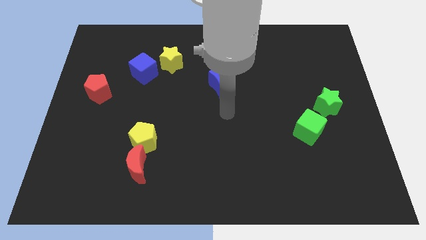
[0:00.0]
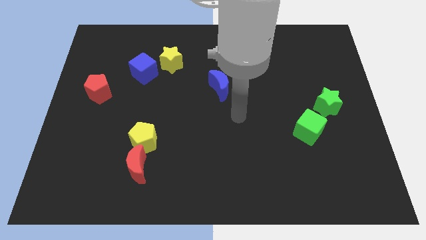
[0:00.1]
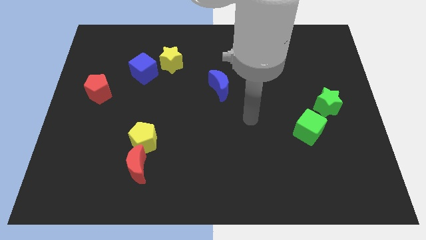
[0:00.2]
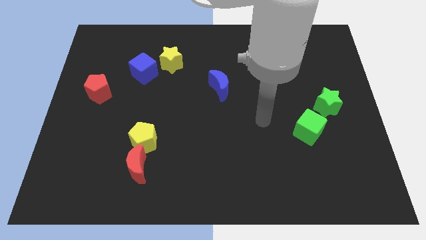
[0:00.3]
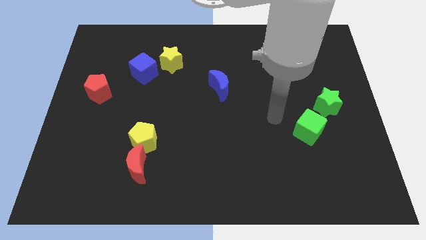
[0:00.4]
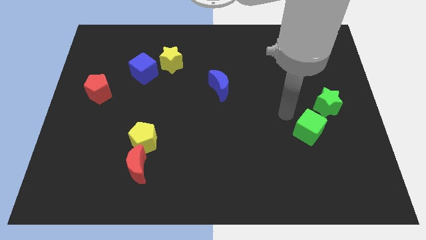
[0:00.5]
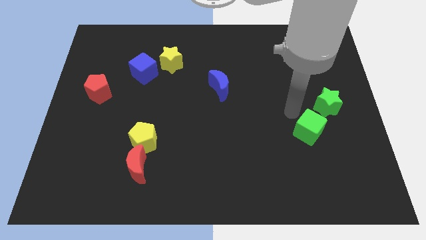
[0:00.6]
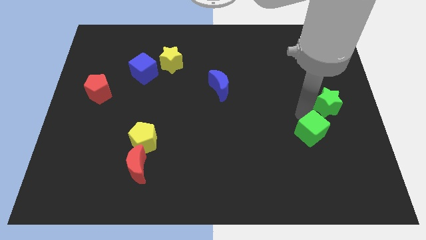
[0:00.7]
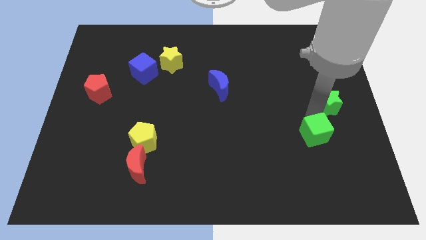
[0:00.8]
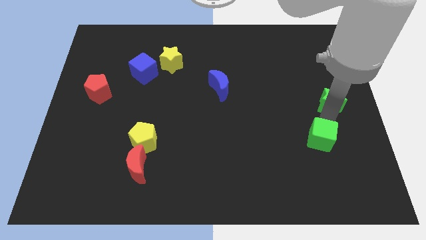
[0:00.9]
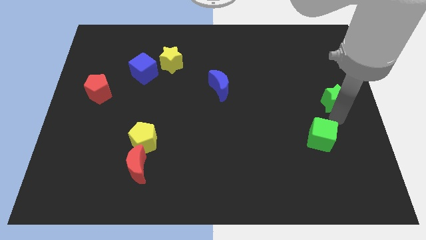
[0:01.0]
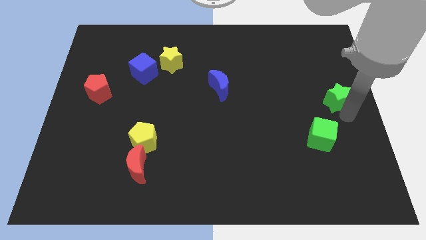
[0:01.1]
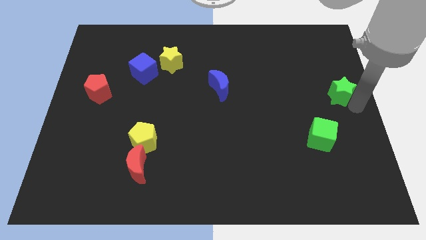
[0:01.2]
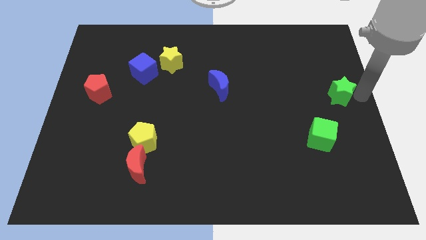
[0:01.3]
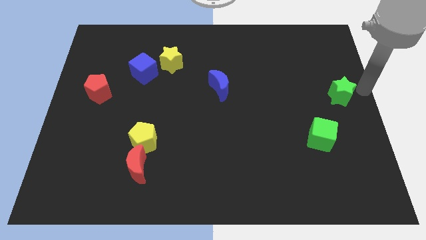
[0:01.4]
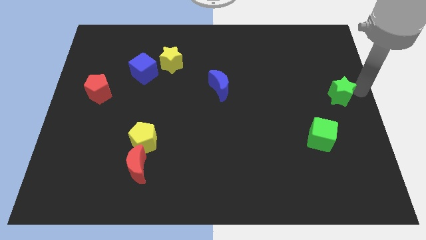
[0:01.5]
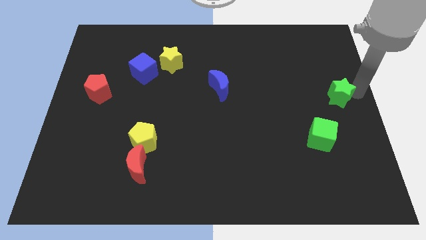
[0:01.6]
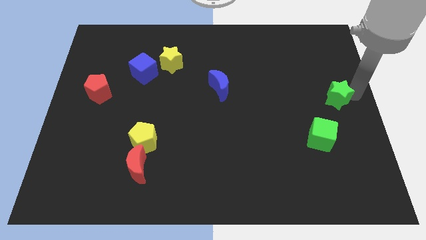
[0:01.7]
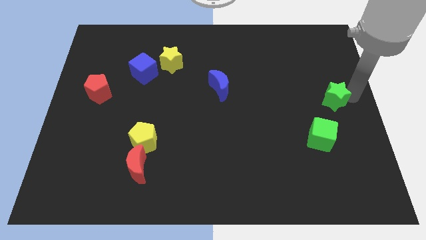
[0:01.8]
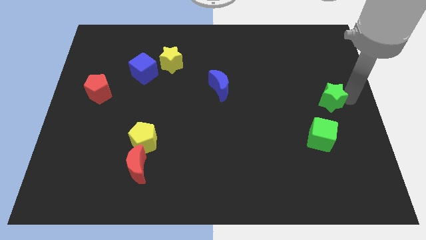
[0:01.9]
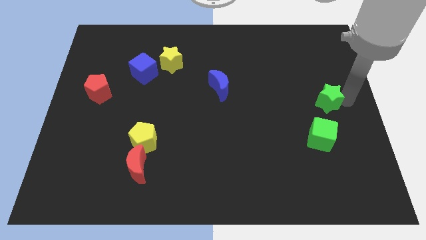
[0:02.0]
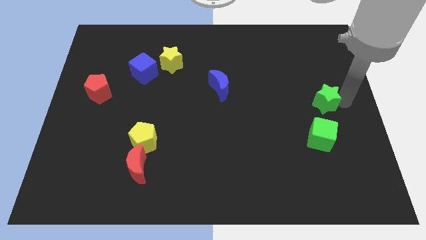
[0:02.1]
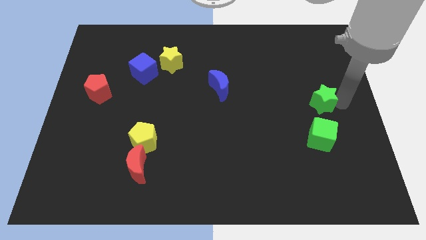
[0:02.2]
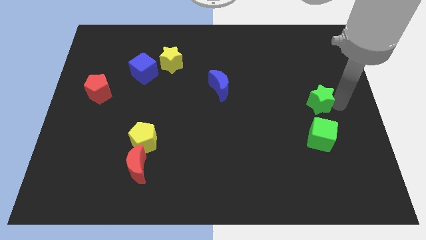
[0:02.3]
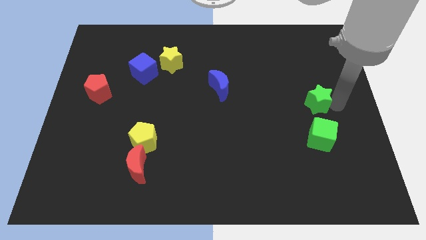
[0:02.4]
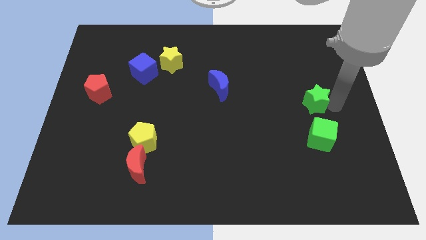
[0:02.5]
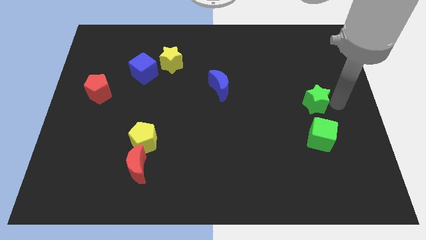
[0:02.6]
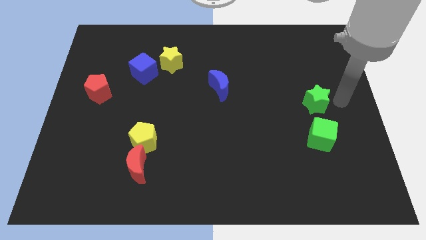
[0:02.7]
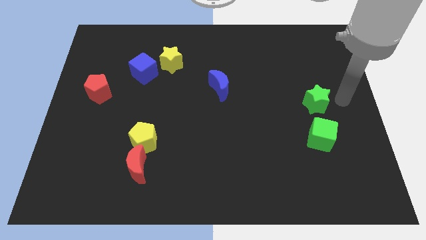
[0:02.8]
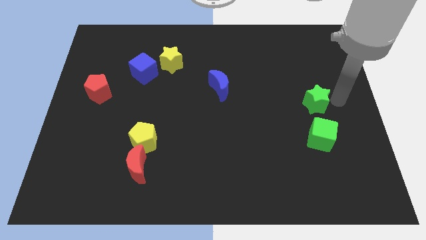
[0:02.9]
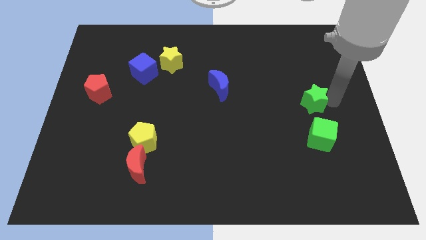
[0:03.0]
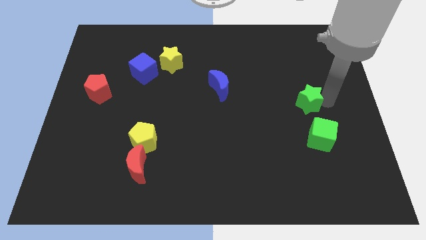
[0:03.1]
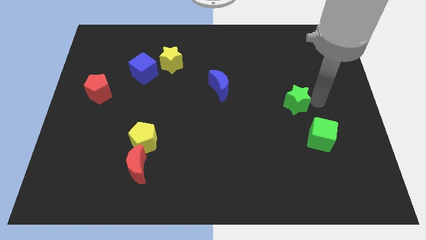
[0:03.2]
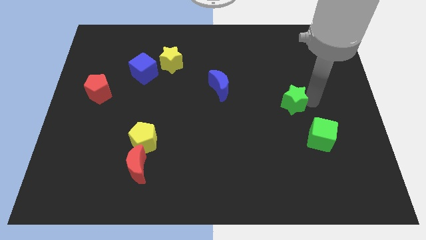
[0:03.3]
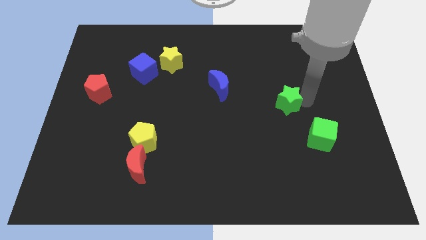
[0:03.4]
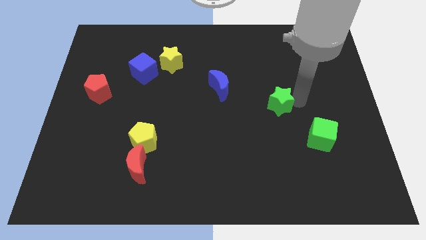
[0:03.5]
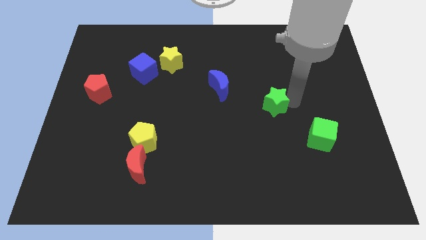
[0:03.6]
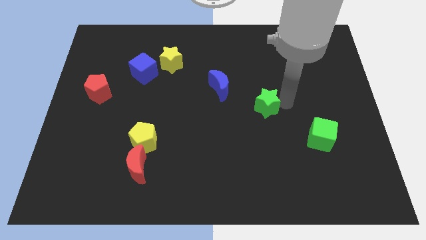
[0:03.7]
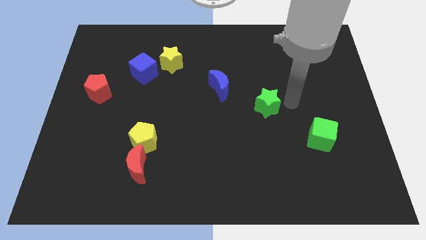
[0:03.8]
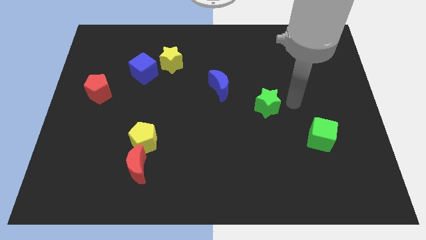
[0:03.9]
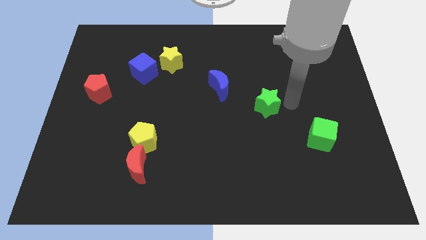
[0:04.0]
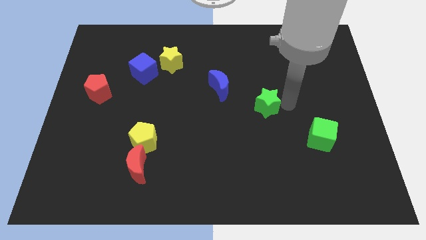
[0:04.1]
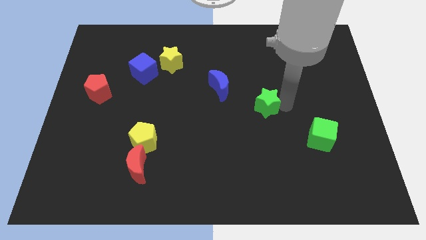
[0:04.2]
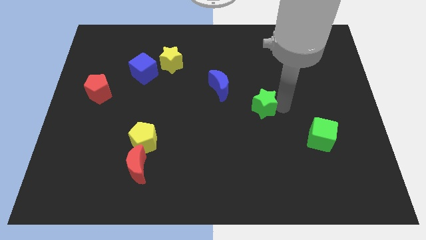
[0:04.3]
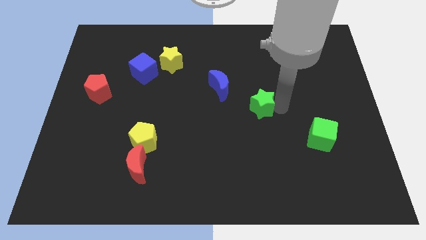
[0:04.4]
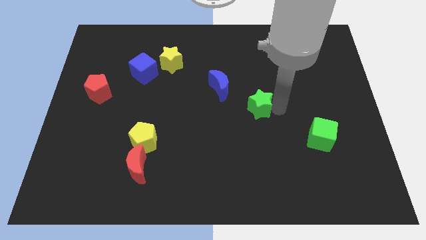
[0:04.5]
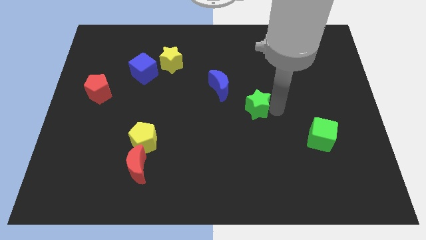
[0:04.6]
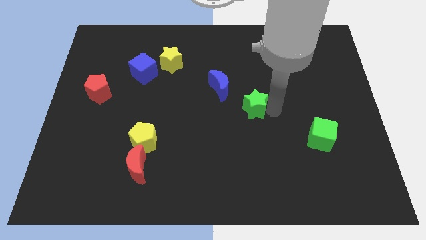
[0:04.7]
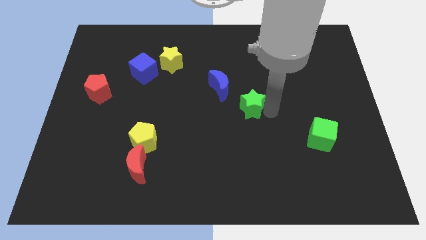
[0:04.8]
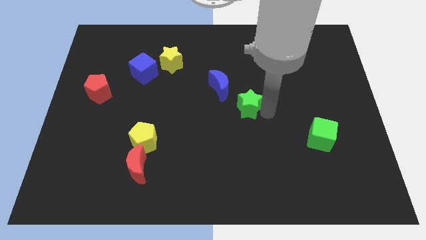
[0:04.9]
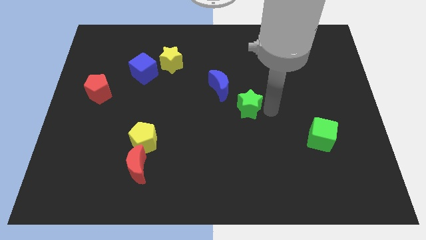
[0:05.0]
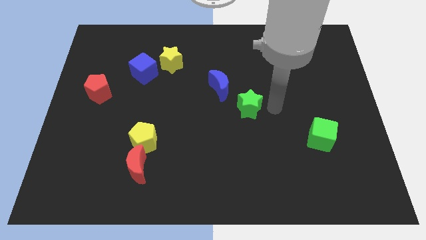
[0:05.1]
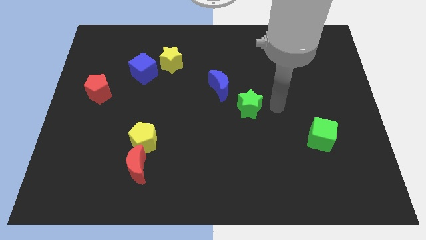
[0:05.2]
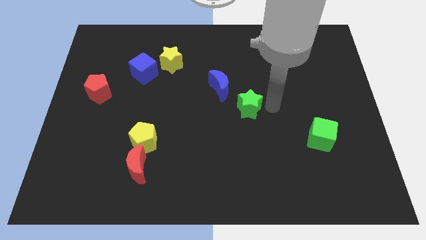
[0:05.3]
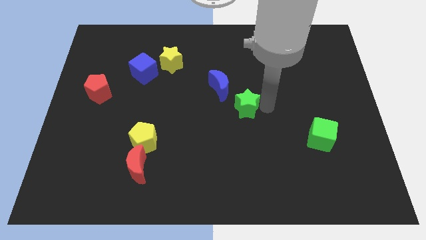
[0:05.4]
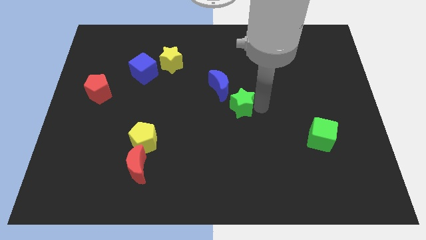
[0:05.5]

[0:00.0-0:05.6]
move the green star left

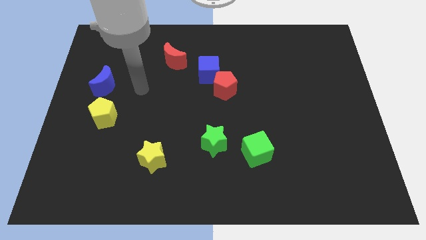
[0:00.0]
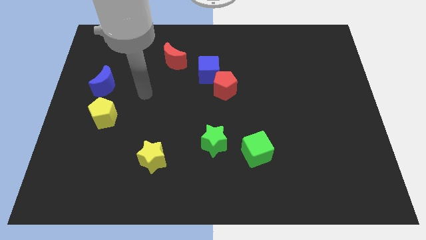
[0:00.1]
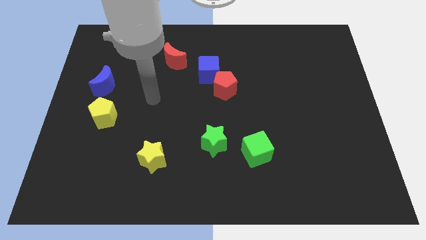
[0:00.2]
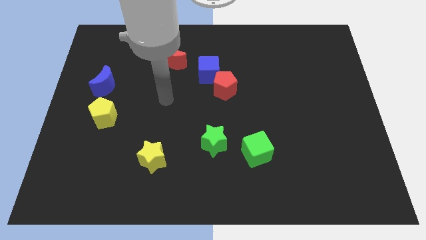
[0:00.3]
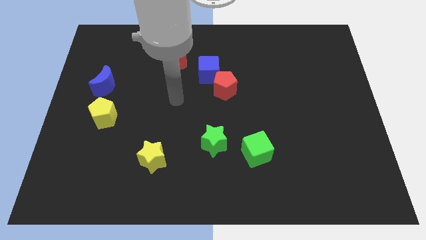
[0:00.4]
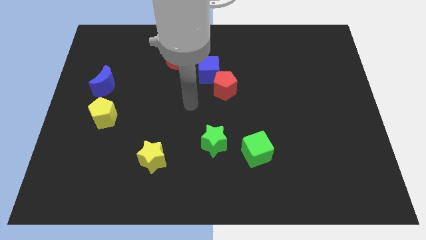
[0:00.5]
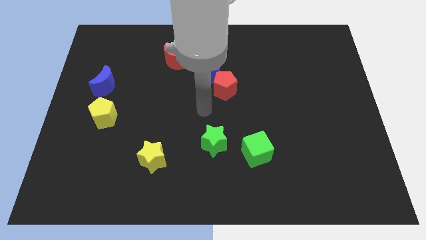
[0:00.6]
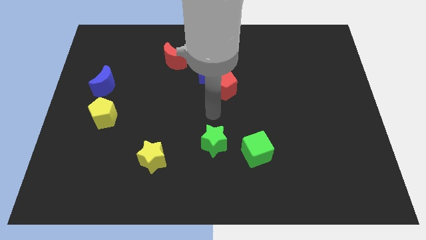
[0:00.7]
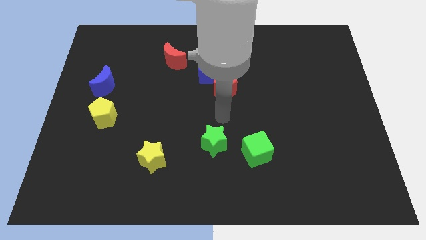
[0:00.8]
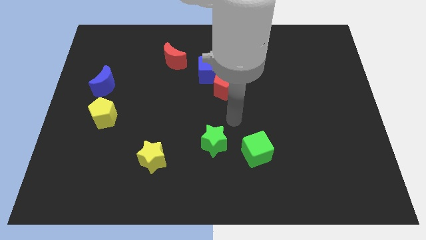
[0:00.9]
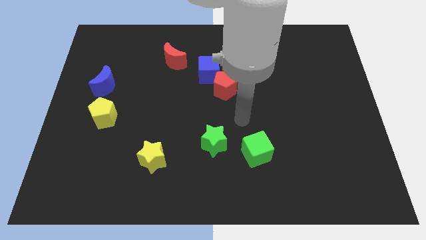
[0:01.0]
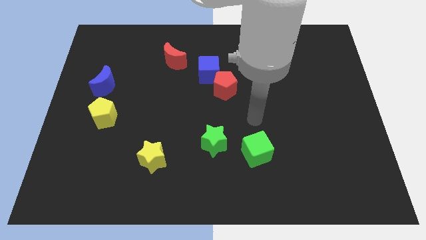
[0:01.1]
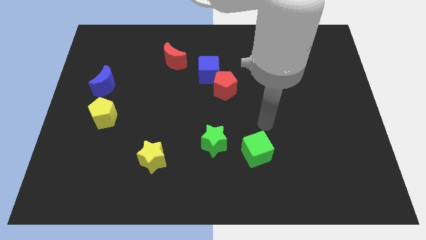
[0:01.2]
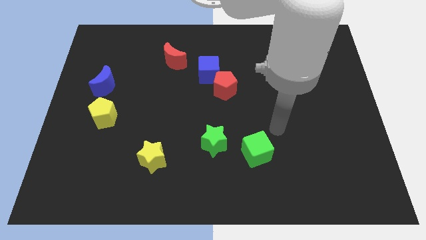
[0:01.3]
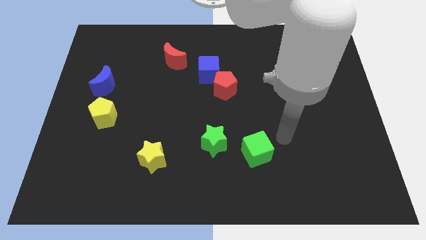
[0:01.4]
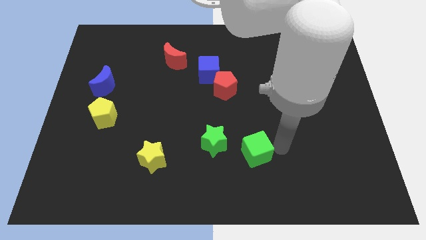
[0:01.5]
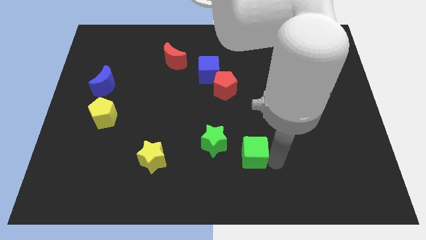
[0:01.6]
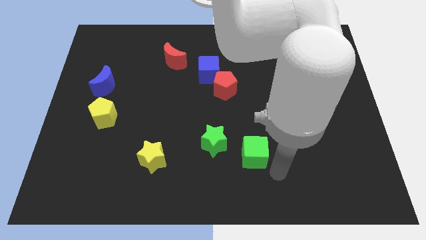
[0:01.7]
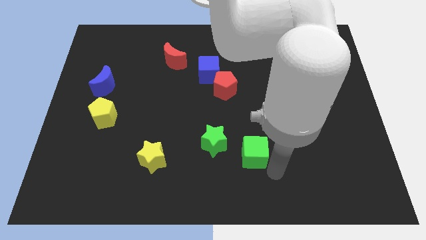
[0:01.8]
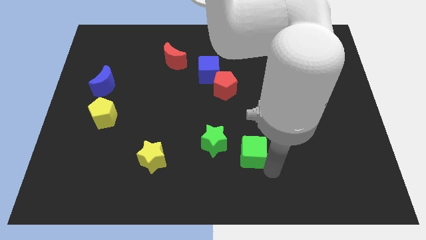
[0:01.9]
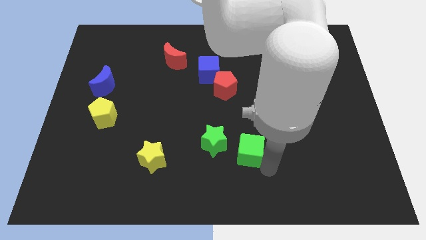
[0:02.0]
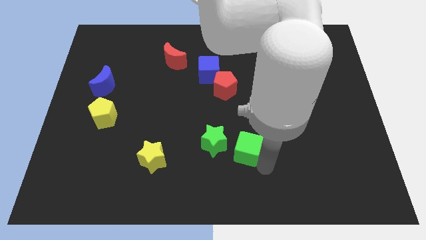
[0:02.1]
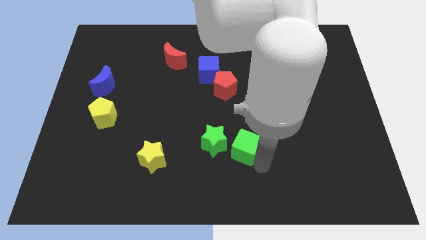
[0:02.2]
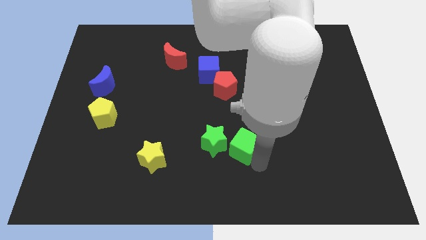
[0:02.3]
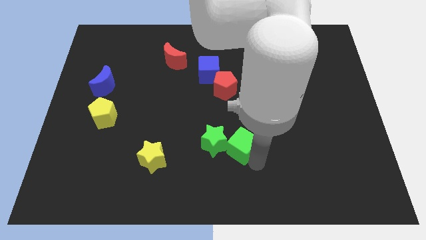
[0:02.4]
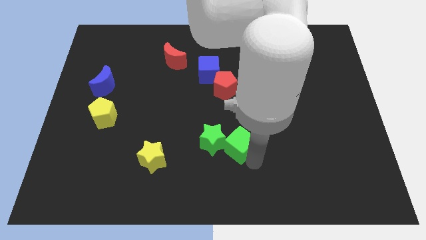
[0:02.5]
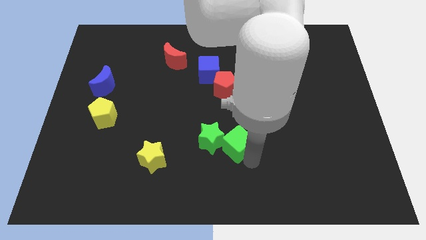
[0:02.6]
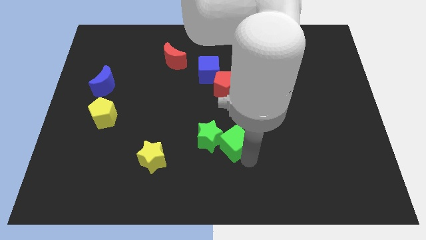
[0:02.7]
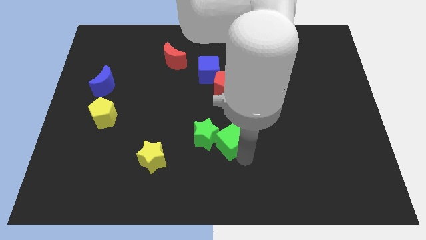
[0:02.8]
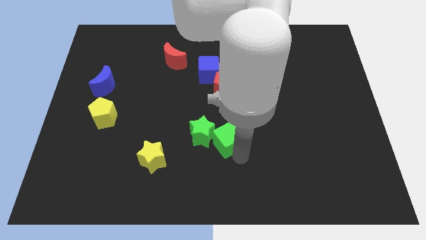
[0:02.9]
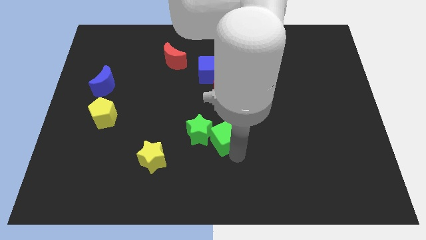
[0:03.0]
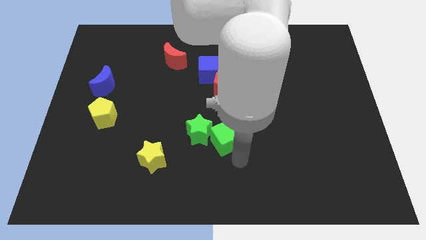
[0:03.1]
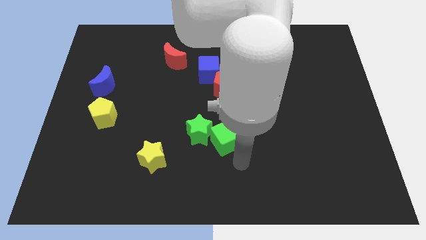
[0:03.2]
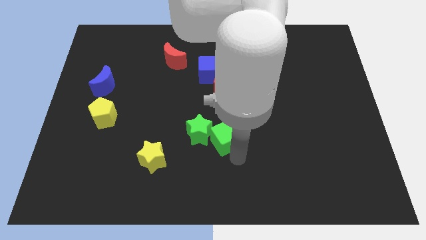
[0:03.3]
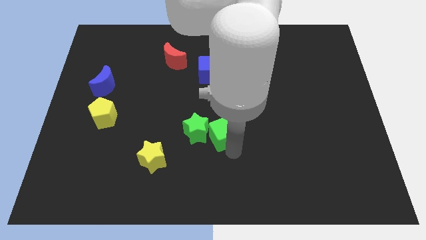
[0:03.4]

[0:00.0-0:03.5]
push the green cube upwards and left a bit
